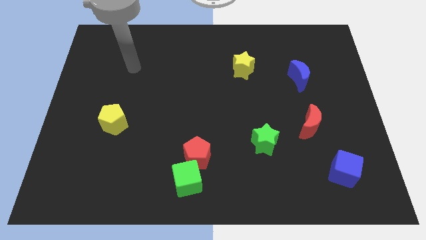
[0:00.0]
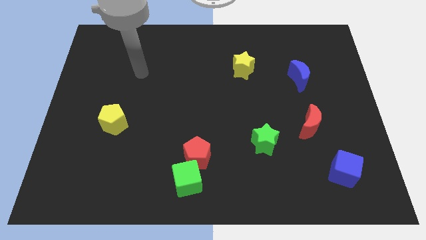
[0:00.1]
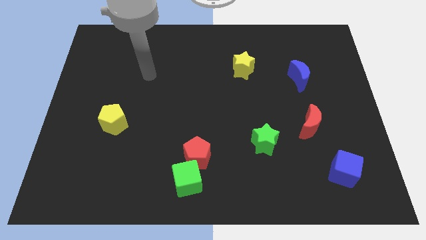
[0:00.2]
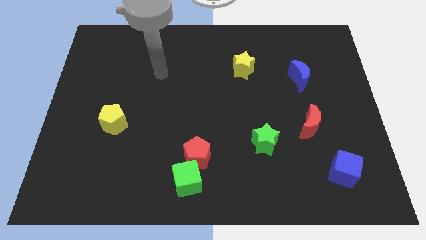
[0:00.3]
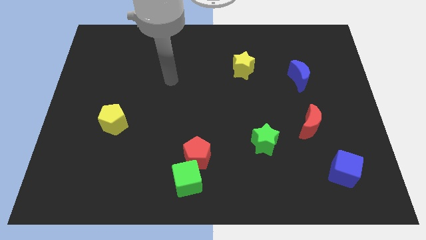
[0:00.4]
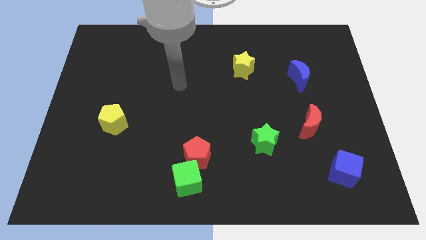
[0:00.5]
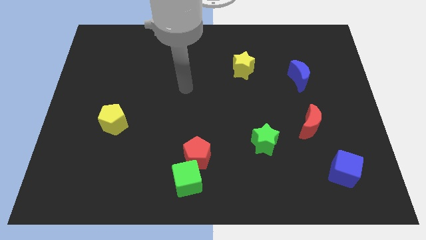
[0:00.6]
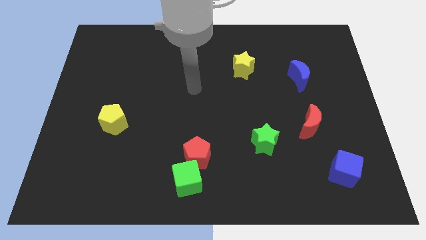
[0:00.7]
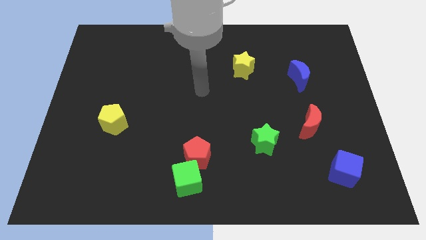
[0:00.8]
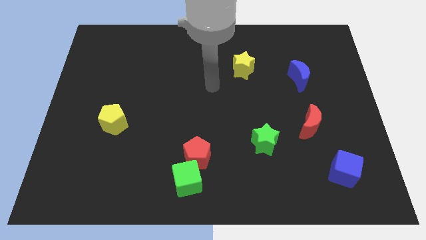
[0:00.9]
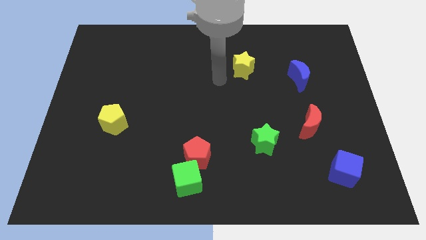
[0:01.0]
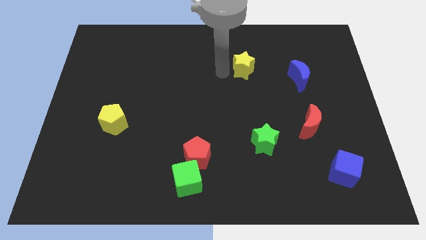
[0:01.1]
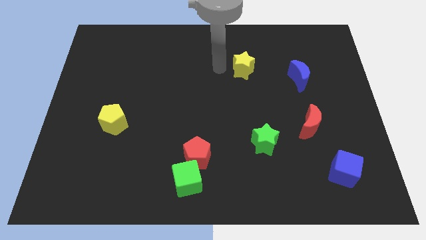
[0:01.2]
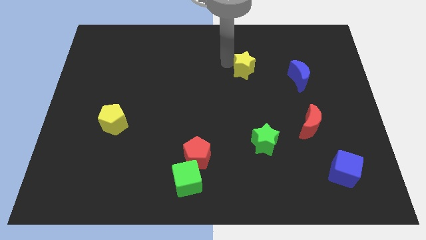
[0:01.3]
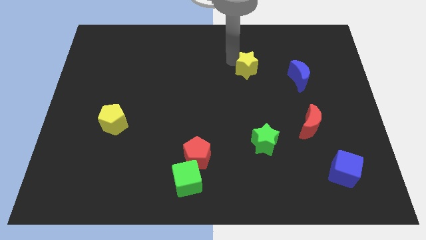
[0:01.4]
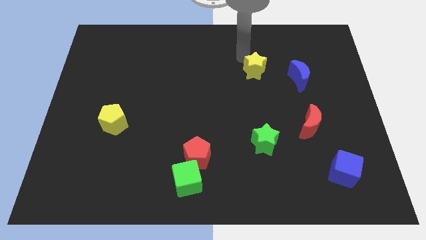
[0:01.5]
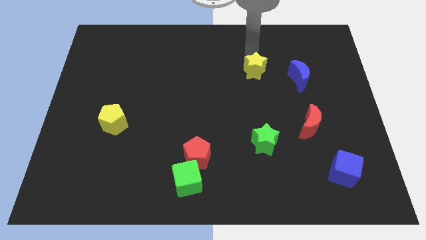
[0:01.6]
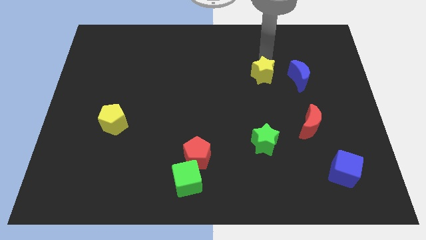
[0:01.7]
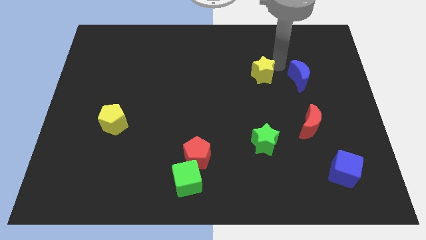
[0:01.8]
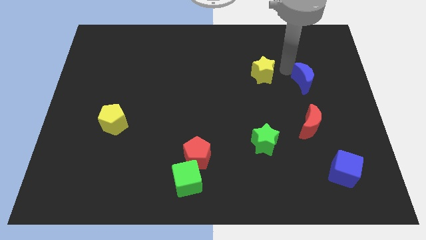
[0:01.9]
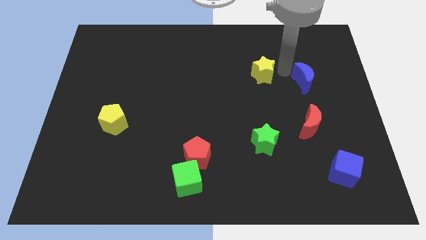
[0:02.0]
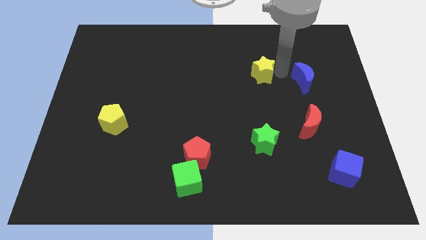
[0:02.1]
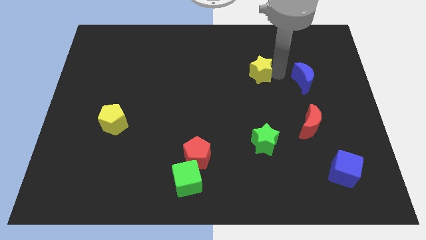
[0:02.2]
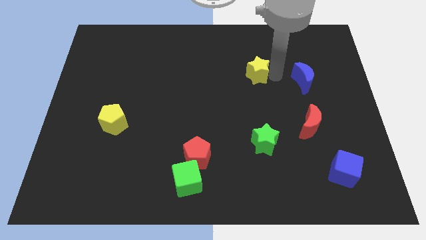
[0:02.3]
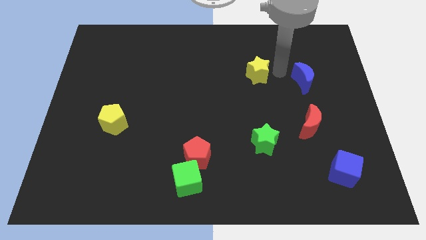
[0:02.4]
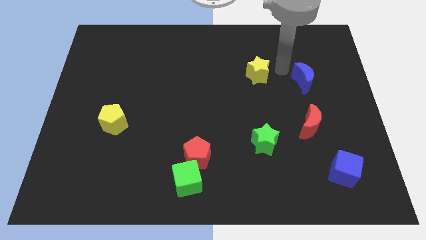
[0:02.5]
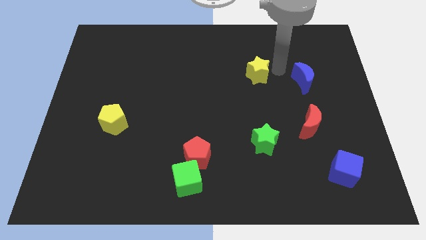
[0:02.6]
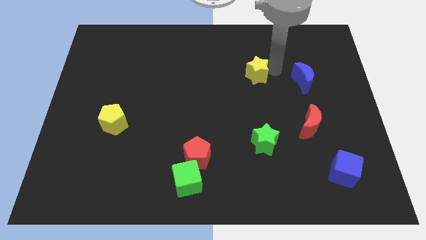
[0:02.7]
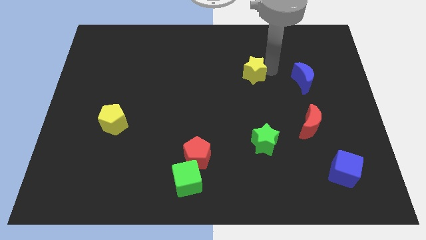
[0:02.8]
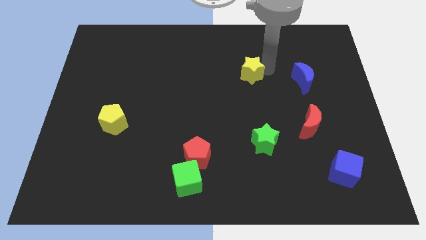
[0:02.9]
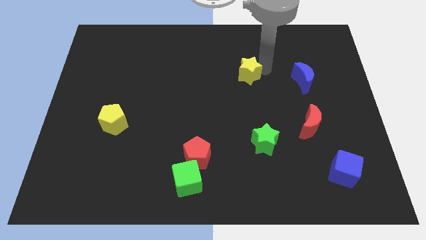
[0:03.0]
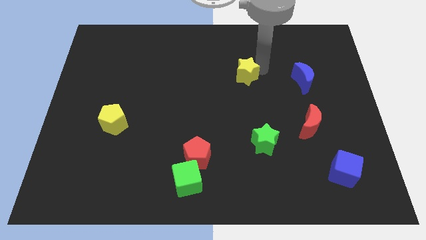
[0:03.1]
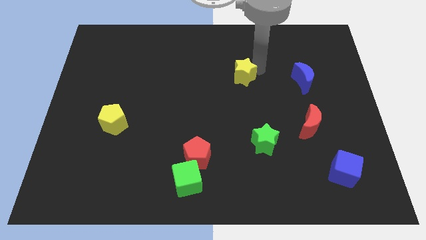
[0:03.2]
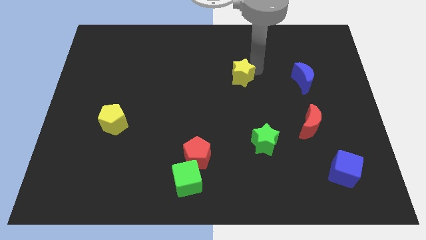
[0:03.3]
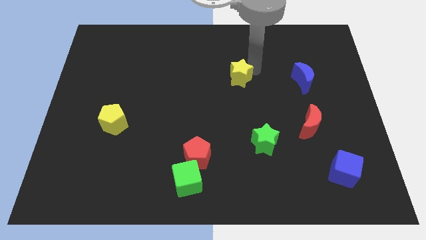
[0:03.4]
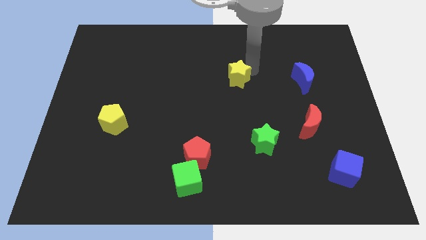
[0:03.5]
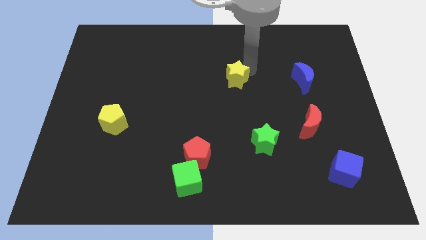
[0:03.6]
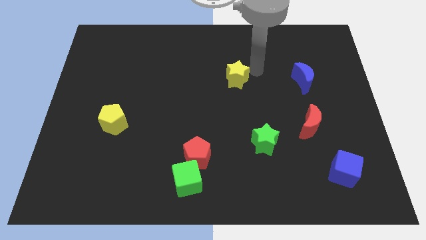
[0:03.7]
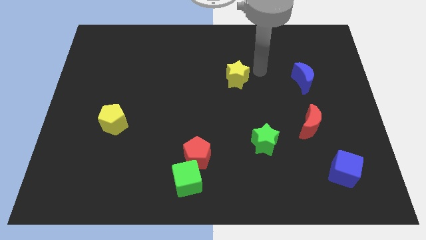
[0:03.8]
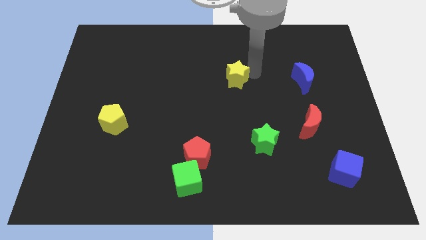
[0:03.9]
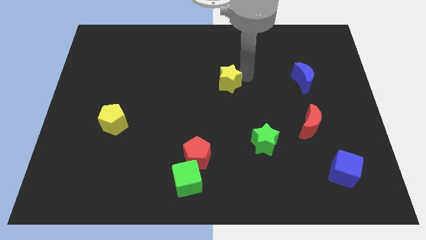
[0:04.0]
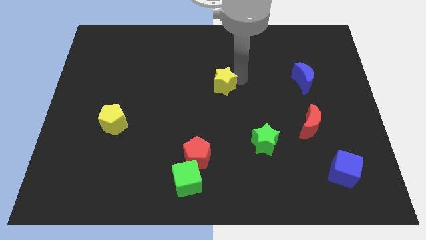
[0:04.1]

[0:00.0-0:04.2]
move the yellow star down and then to the left somewhat

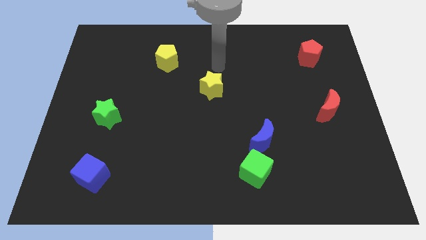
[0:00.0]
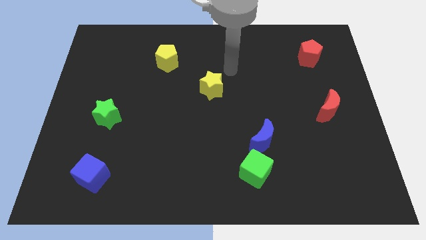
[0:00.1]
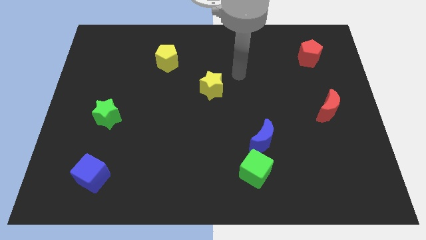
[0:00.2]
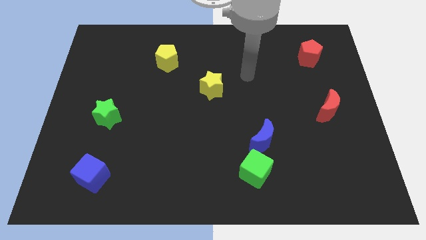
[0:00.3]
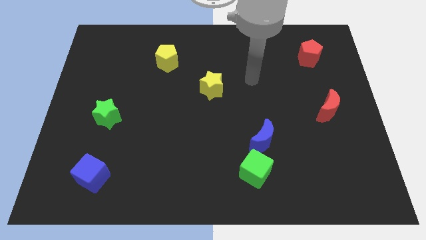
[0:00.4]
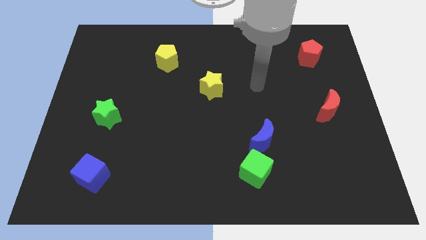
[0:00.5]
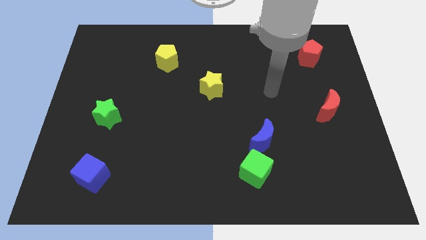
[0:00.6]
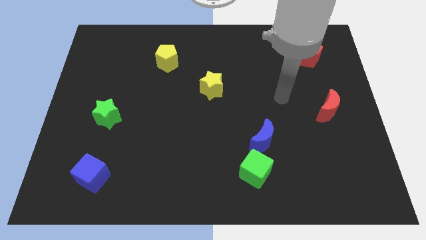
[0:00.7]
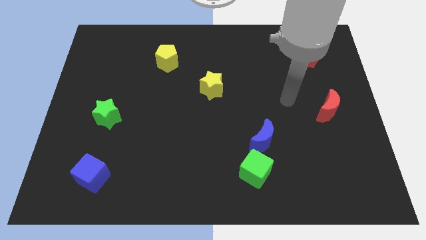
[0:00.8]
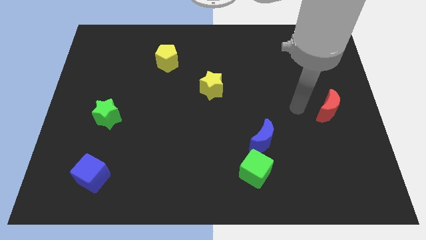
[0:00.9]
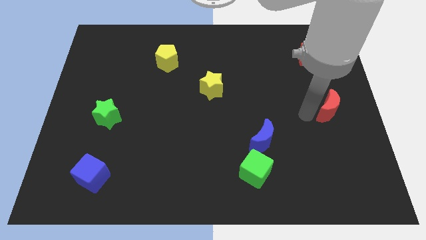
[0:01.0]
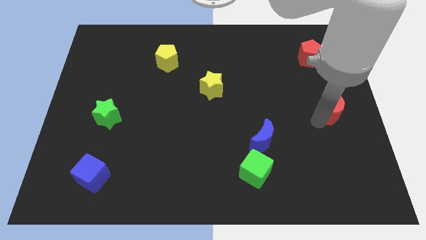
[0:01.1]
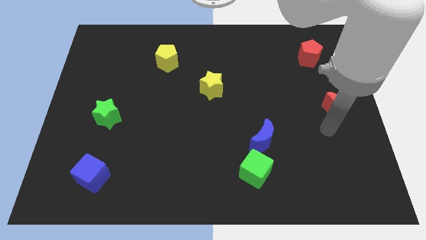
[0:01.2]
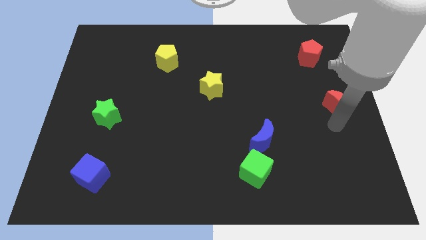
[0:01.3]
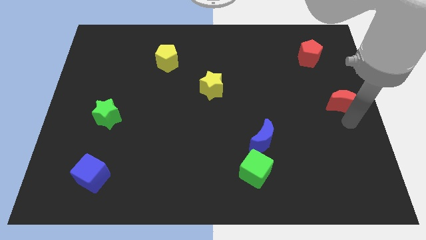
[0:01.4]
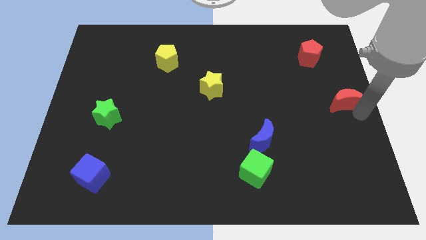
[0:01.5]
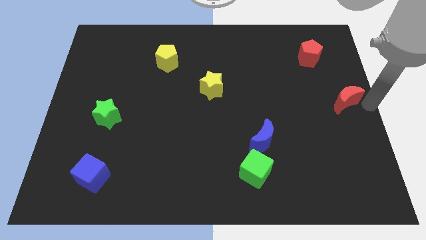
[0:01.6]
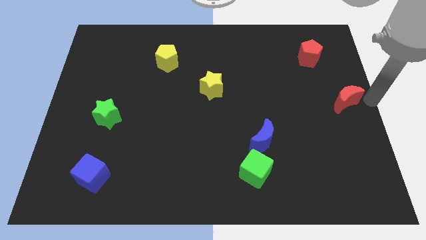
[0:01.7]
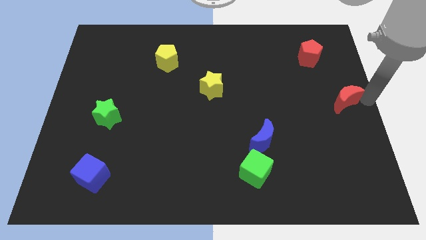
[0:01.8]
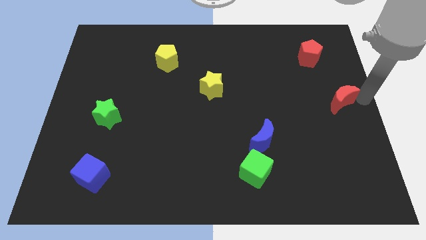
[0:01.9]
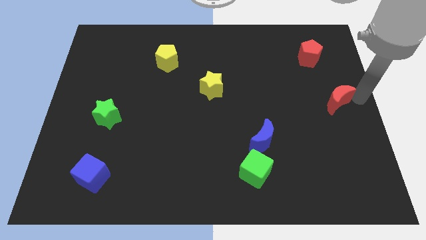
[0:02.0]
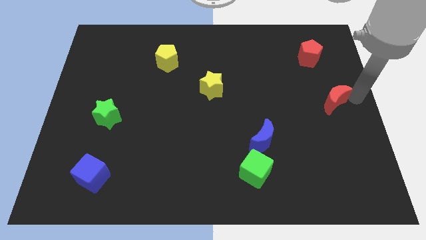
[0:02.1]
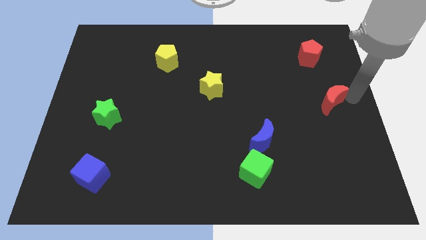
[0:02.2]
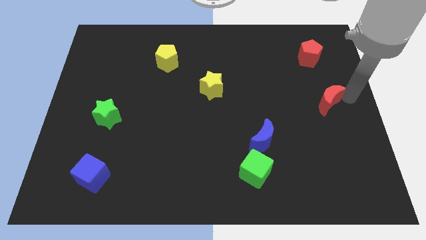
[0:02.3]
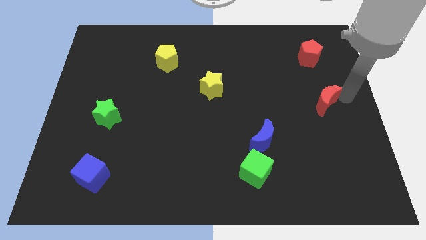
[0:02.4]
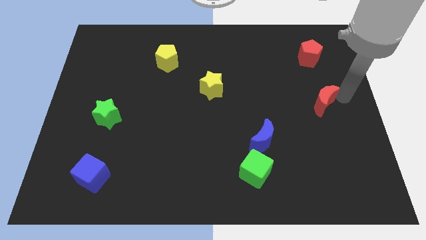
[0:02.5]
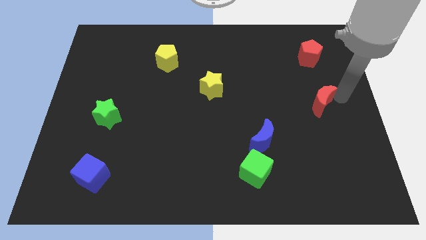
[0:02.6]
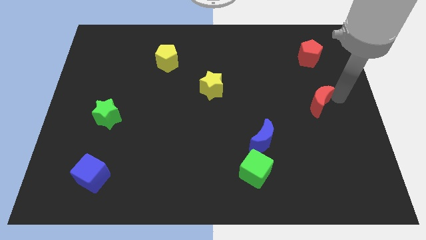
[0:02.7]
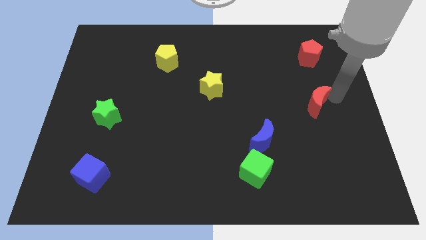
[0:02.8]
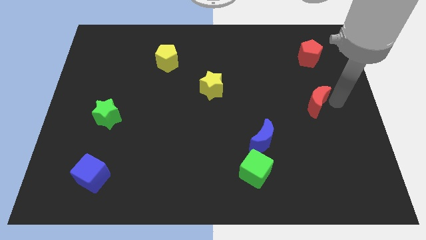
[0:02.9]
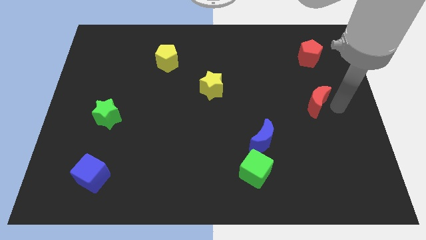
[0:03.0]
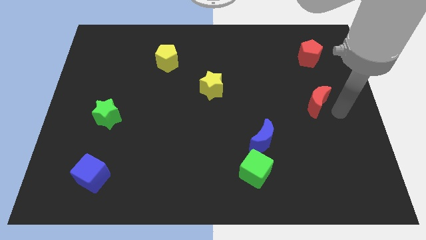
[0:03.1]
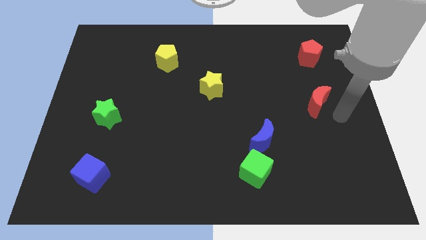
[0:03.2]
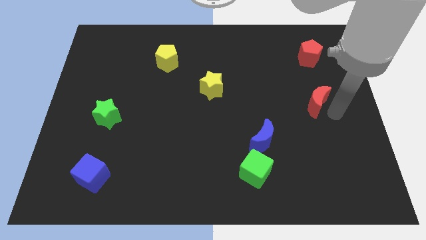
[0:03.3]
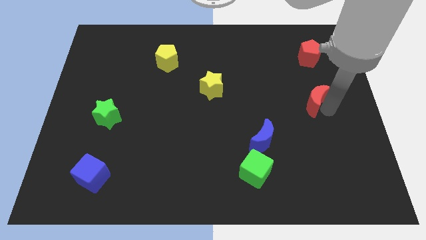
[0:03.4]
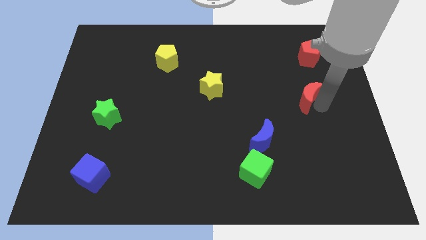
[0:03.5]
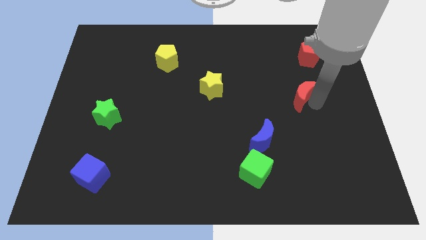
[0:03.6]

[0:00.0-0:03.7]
push the red moon up and left diagonally slightly

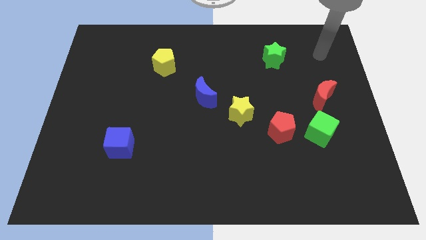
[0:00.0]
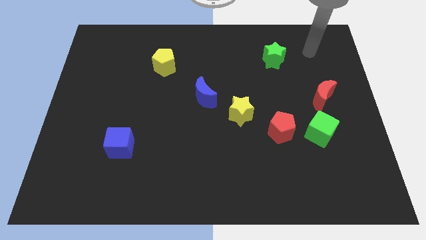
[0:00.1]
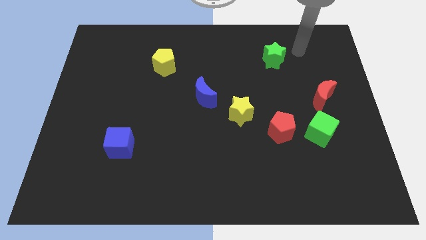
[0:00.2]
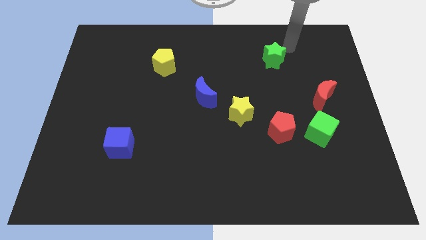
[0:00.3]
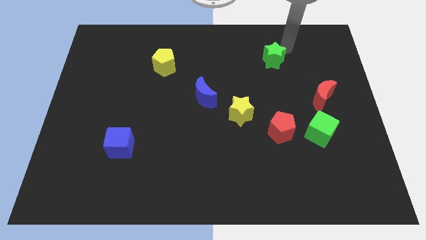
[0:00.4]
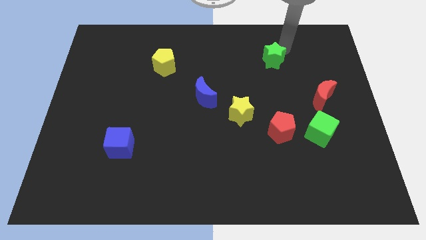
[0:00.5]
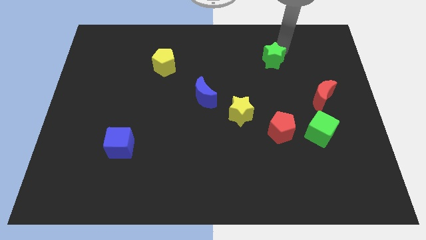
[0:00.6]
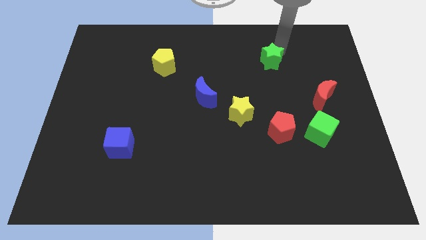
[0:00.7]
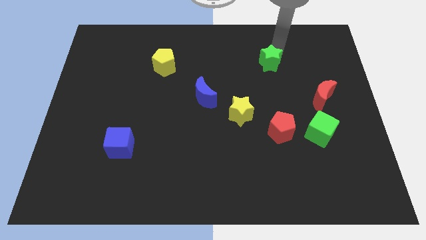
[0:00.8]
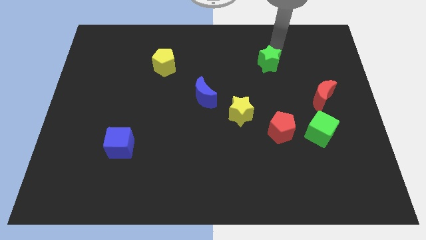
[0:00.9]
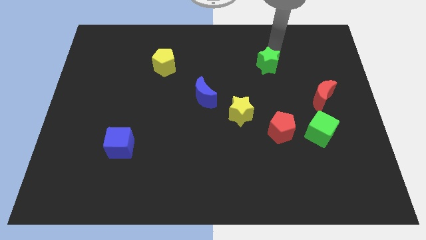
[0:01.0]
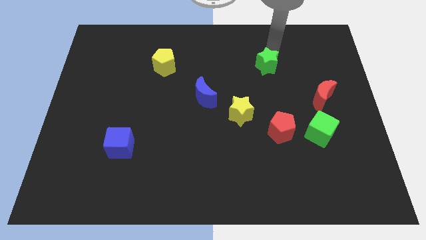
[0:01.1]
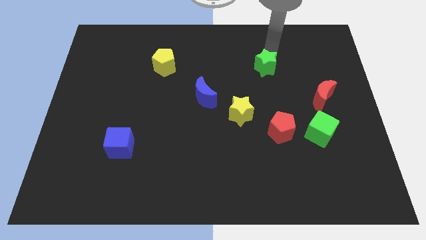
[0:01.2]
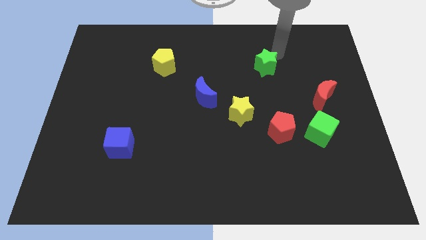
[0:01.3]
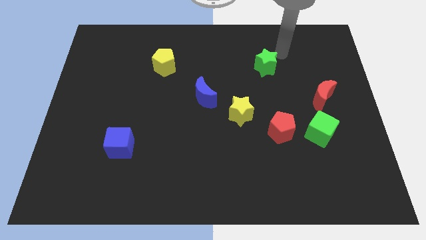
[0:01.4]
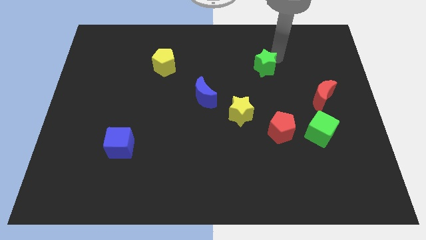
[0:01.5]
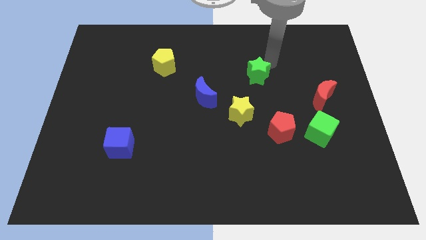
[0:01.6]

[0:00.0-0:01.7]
slightly push the green star downwards and to the left diagonally
